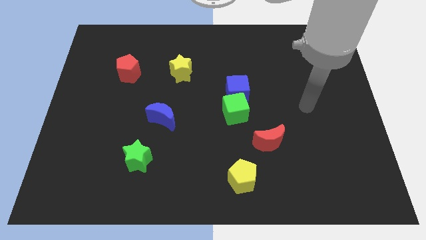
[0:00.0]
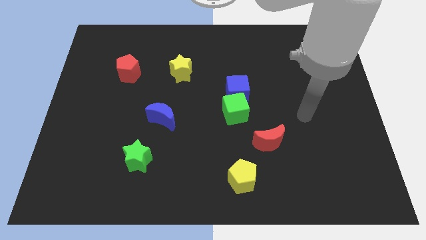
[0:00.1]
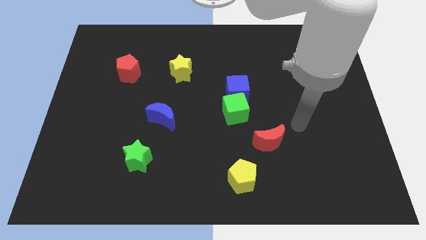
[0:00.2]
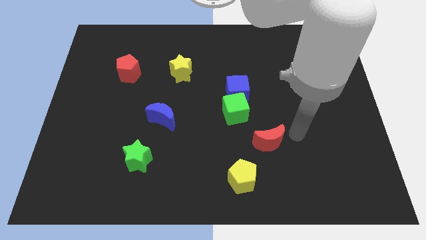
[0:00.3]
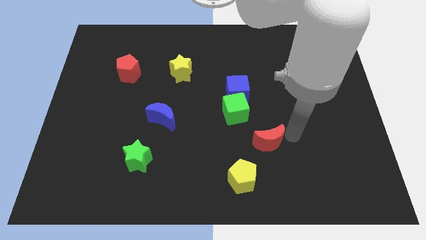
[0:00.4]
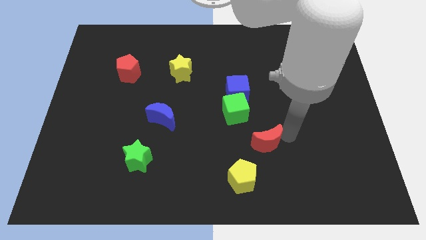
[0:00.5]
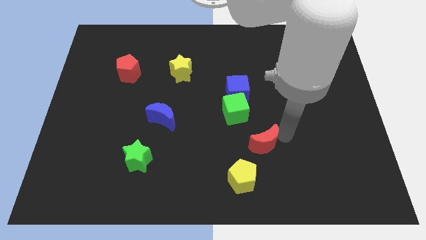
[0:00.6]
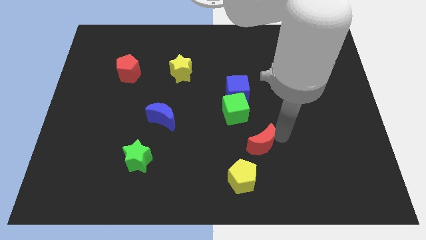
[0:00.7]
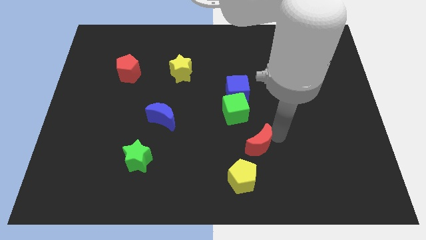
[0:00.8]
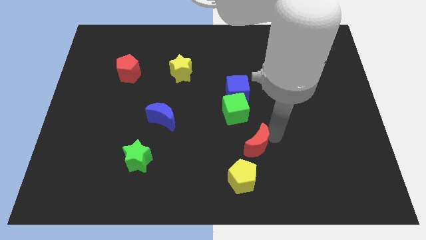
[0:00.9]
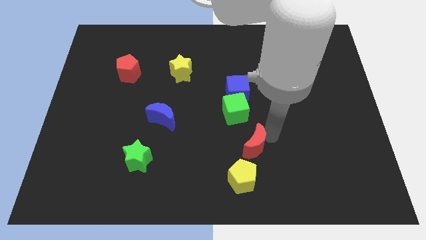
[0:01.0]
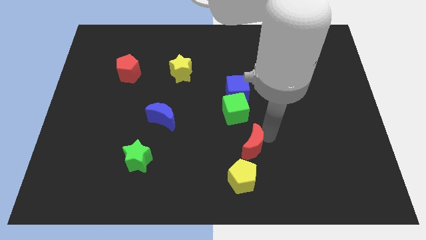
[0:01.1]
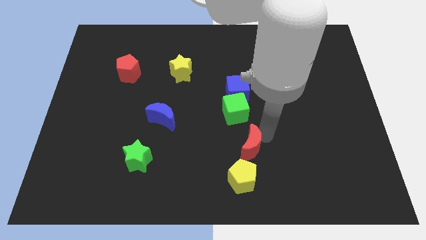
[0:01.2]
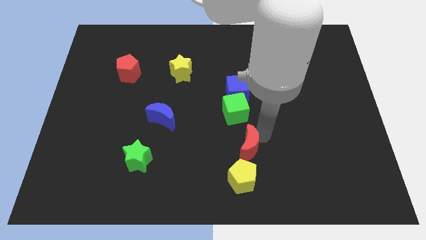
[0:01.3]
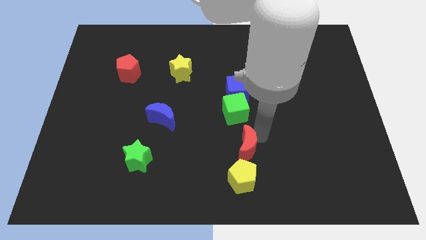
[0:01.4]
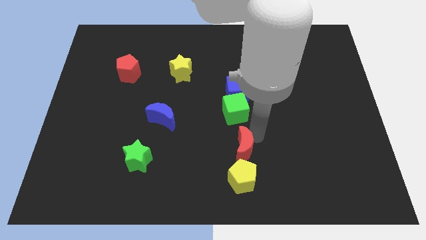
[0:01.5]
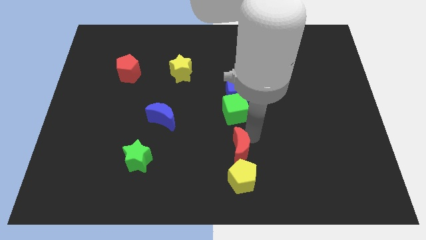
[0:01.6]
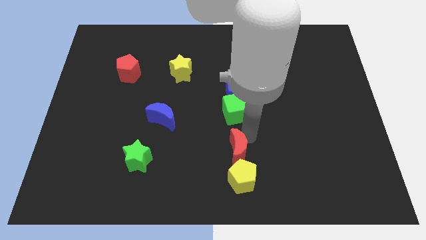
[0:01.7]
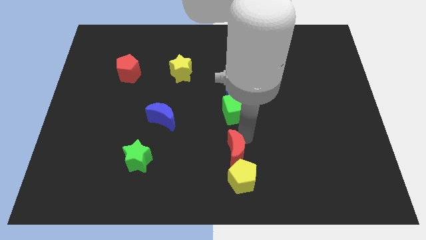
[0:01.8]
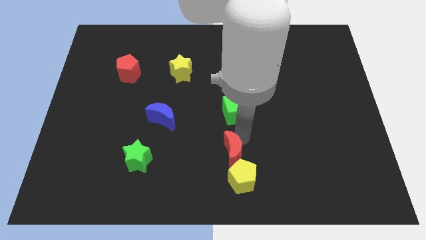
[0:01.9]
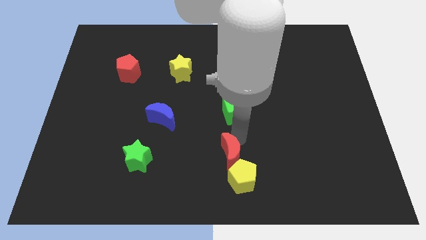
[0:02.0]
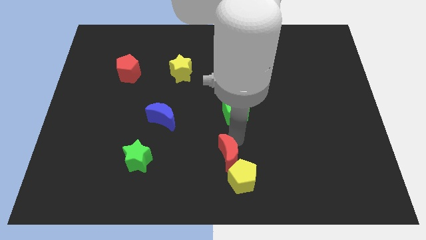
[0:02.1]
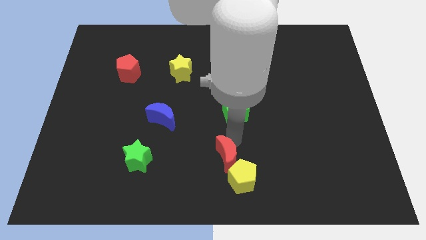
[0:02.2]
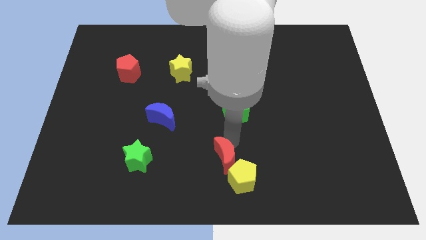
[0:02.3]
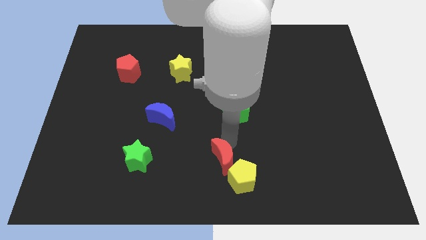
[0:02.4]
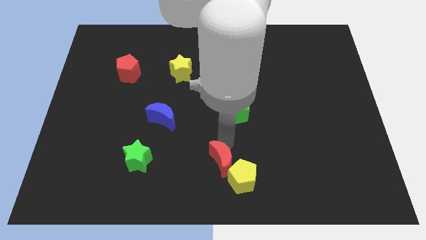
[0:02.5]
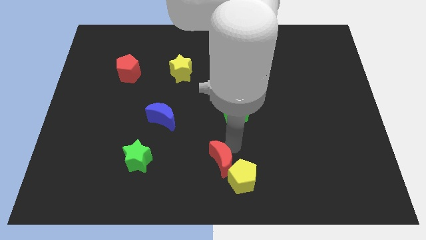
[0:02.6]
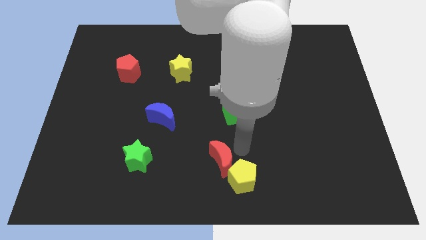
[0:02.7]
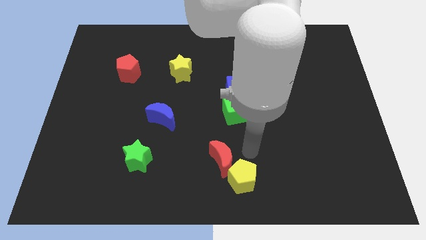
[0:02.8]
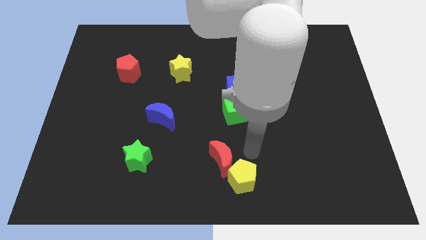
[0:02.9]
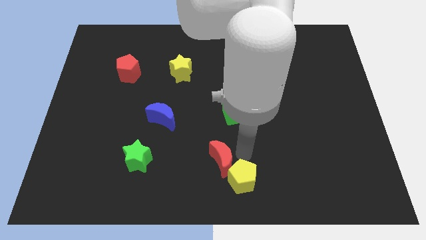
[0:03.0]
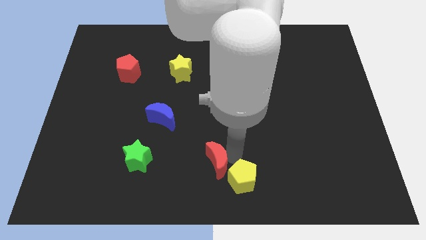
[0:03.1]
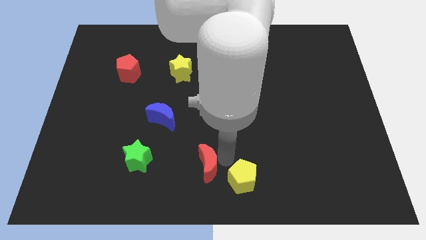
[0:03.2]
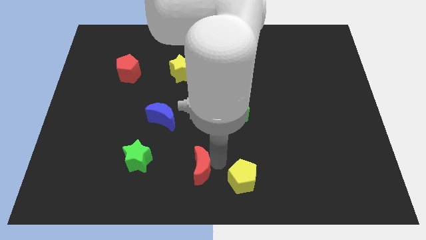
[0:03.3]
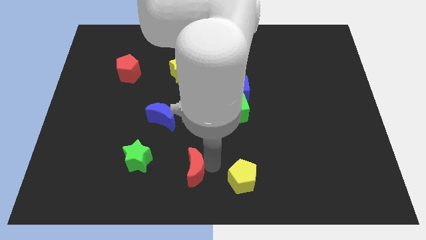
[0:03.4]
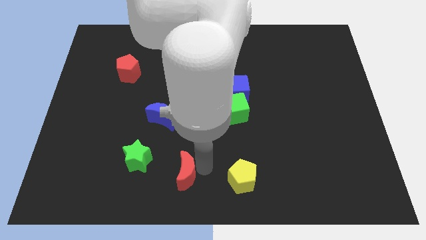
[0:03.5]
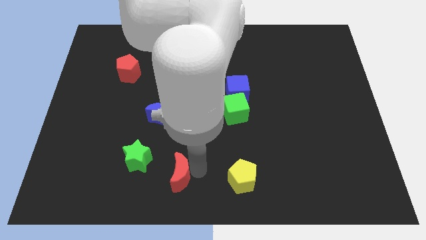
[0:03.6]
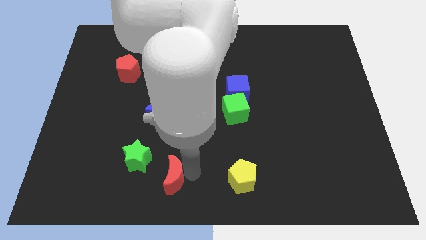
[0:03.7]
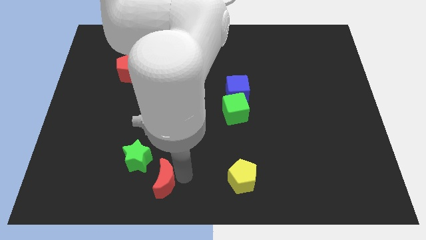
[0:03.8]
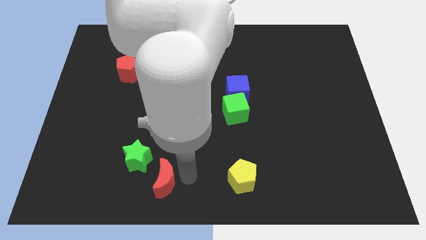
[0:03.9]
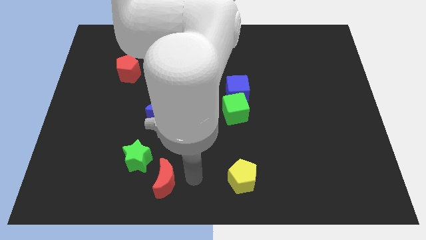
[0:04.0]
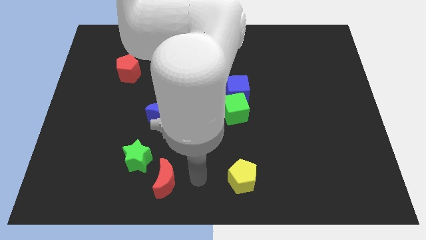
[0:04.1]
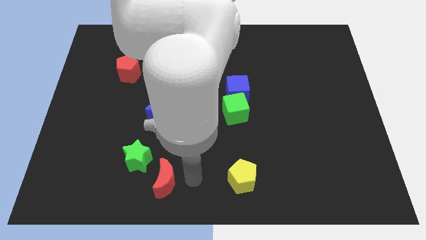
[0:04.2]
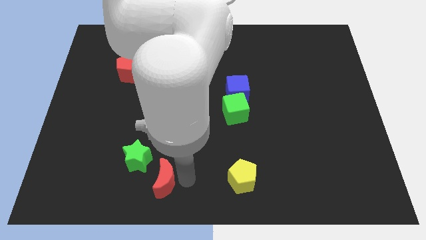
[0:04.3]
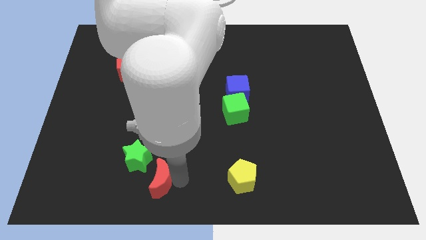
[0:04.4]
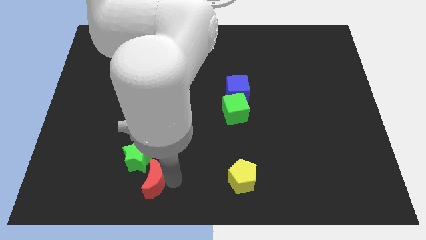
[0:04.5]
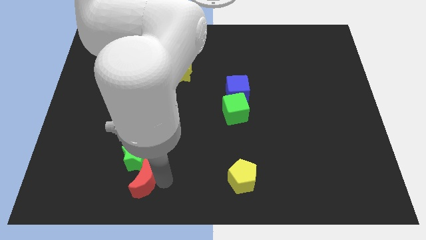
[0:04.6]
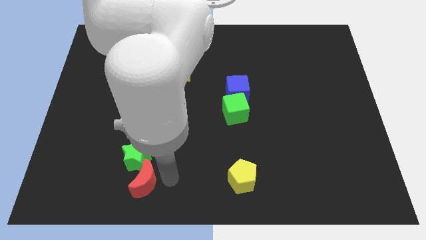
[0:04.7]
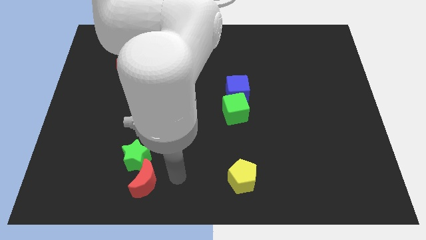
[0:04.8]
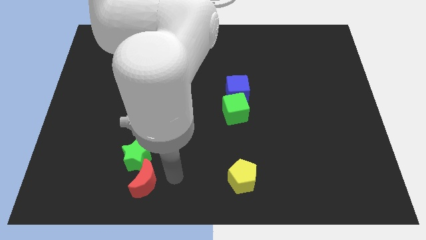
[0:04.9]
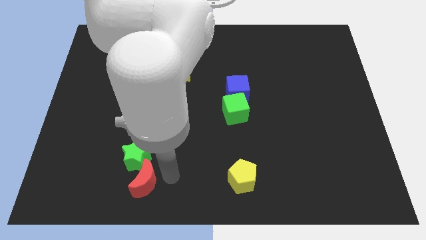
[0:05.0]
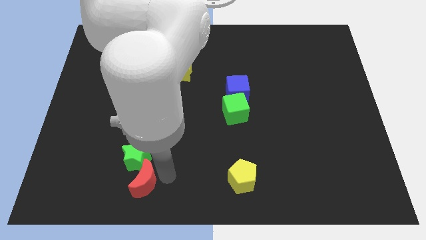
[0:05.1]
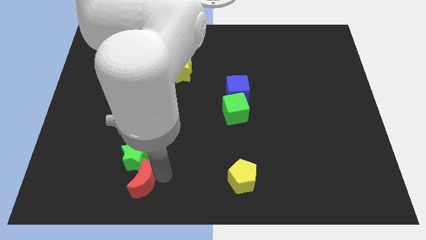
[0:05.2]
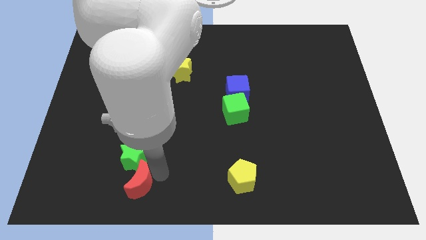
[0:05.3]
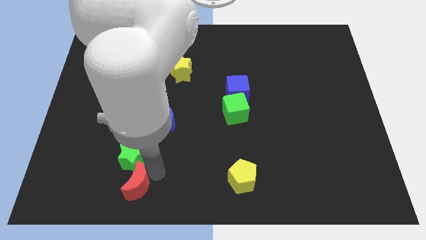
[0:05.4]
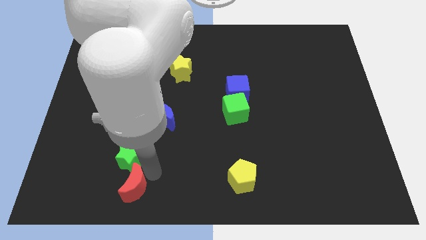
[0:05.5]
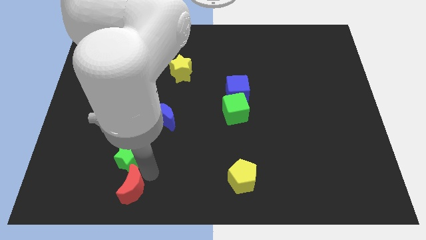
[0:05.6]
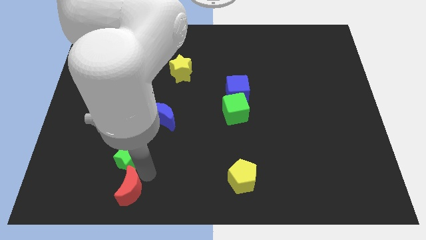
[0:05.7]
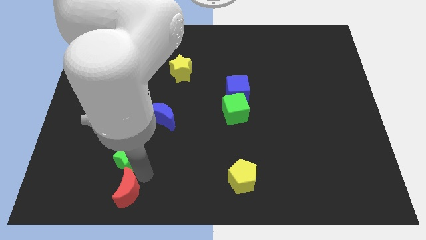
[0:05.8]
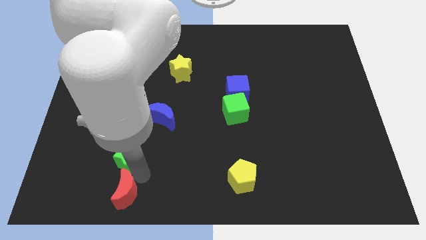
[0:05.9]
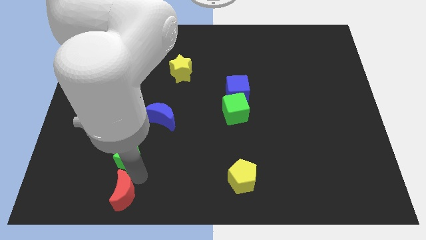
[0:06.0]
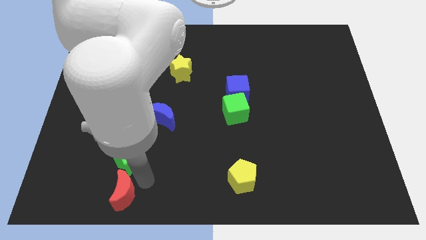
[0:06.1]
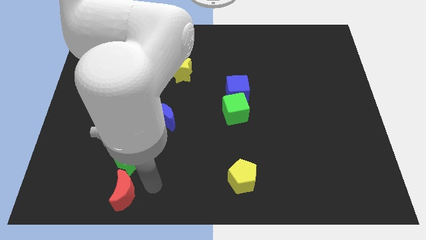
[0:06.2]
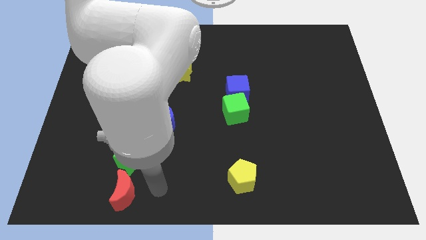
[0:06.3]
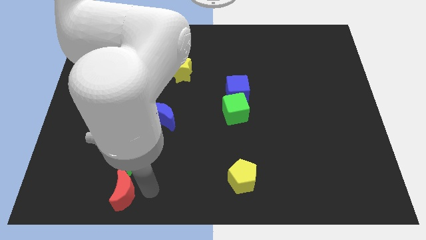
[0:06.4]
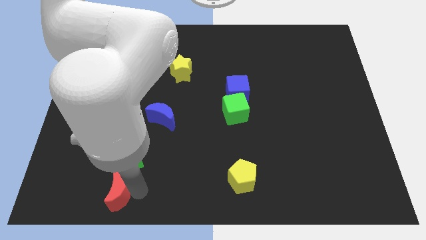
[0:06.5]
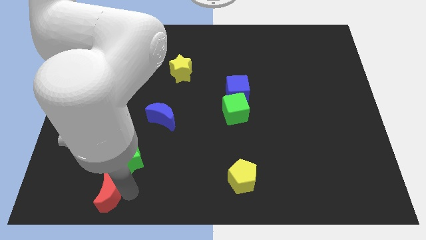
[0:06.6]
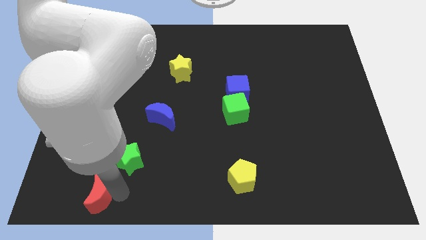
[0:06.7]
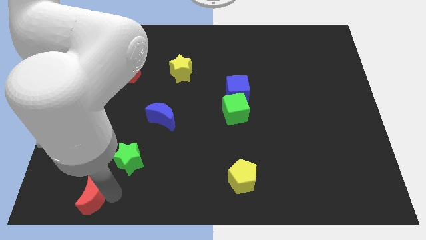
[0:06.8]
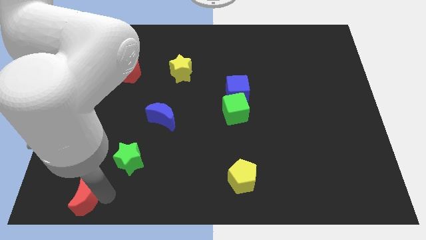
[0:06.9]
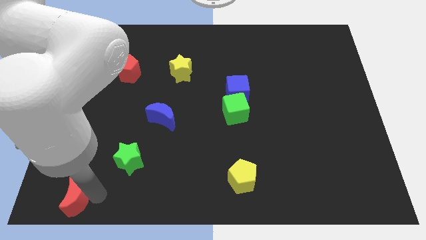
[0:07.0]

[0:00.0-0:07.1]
put the red moon to the bottom left corner
